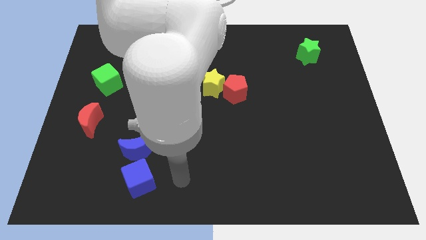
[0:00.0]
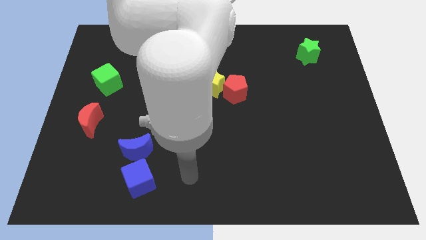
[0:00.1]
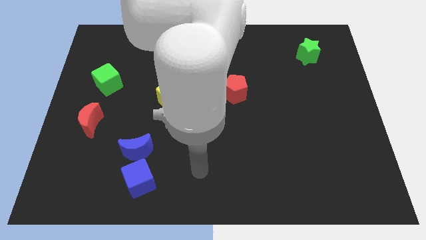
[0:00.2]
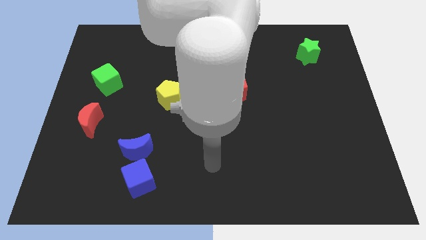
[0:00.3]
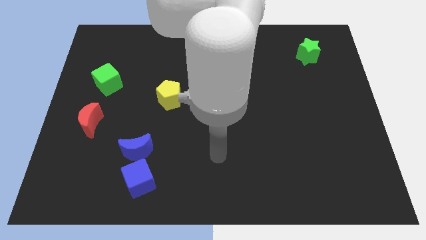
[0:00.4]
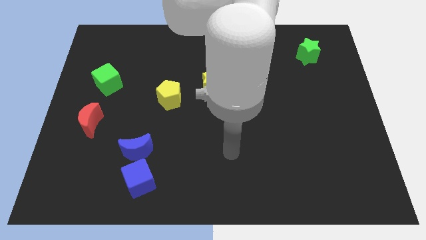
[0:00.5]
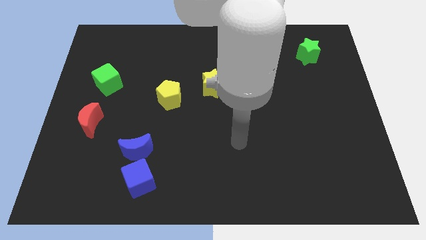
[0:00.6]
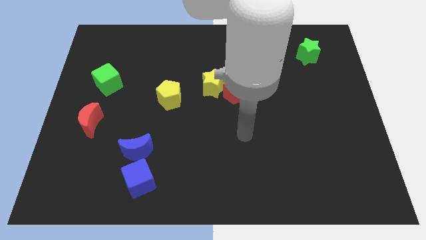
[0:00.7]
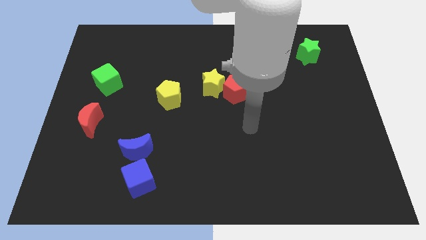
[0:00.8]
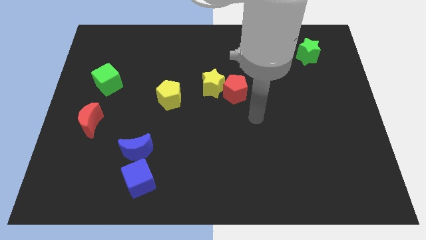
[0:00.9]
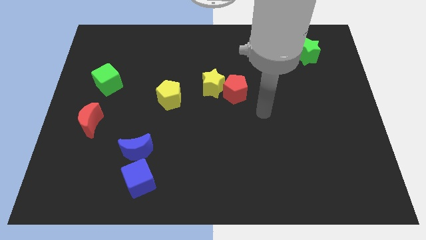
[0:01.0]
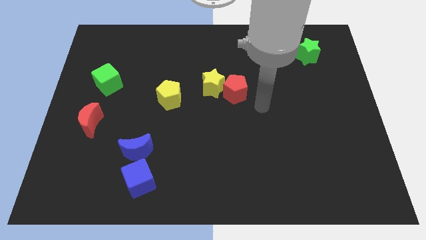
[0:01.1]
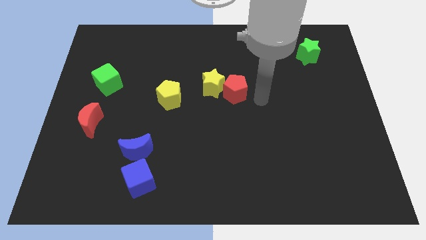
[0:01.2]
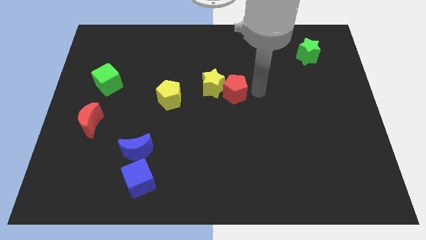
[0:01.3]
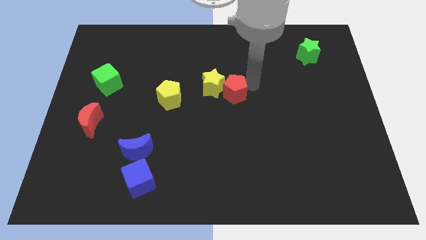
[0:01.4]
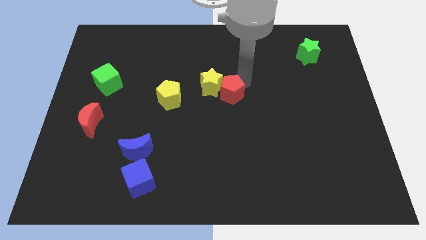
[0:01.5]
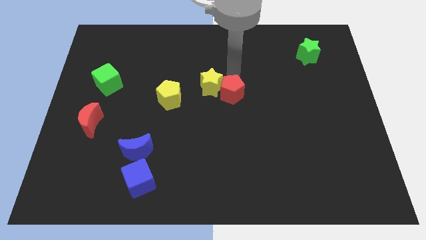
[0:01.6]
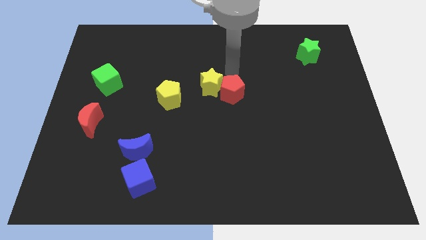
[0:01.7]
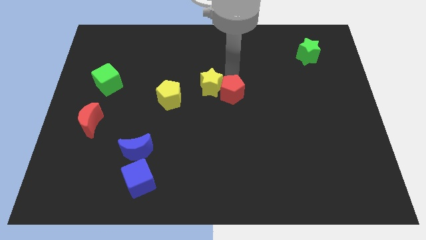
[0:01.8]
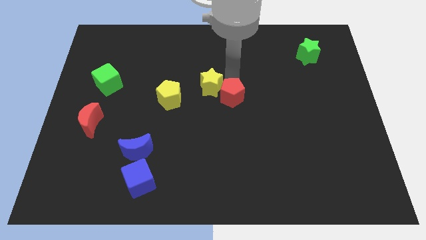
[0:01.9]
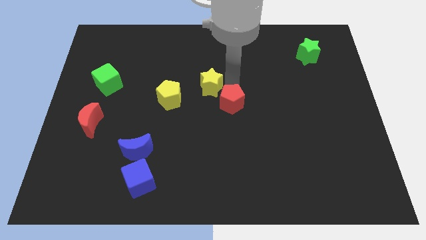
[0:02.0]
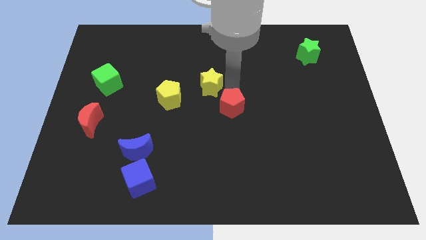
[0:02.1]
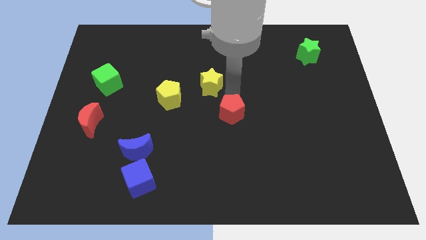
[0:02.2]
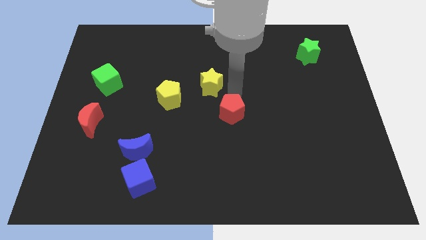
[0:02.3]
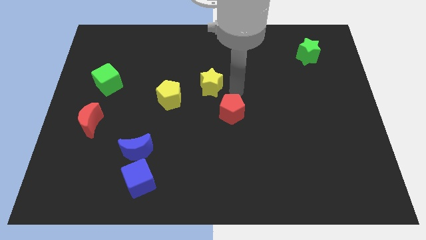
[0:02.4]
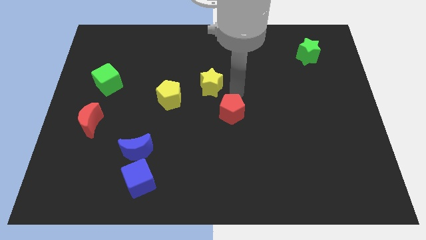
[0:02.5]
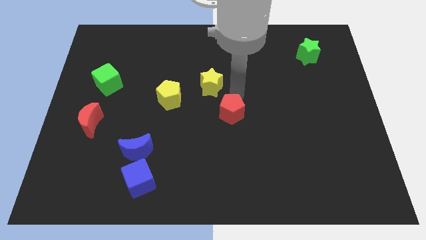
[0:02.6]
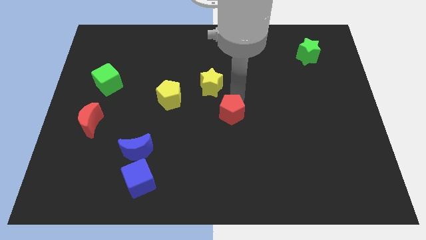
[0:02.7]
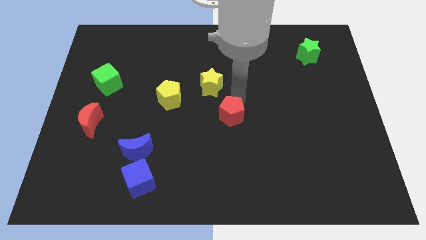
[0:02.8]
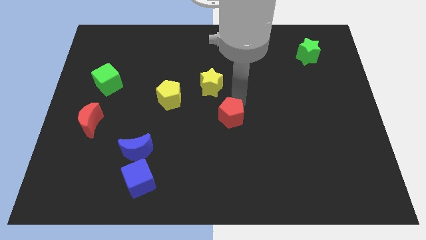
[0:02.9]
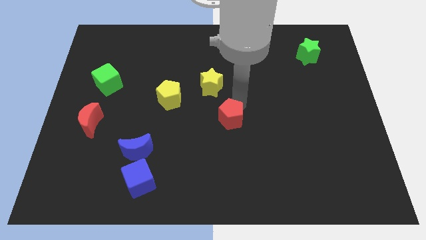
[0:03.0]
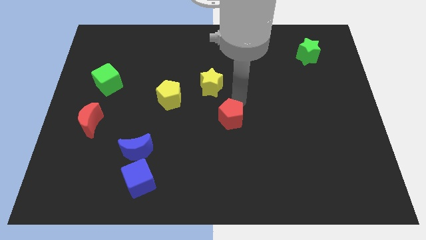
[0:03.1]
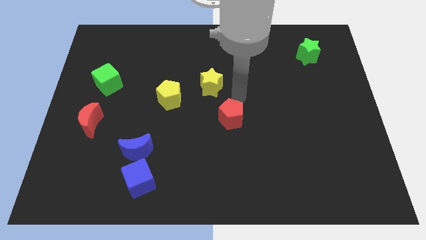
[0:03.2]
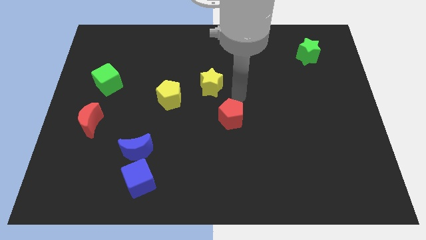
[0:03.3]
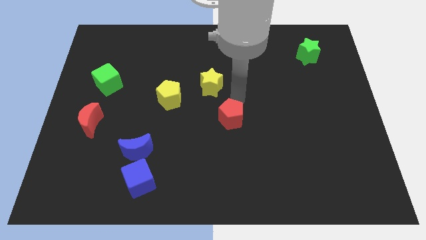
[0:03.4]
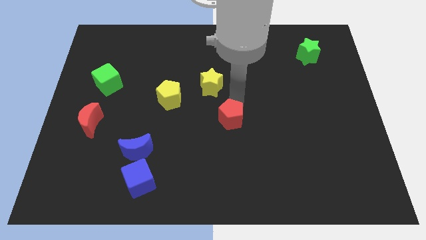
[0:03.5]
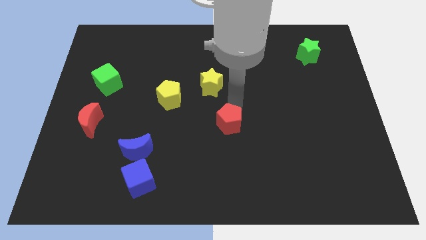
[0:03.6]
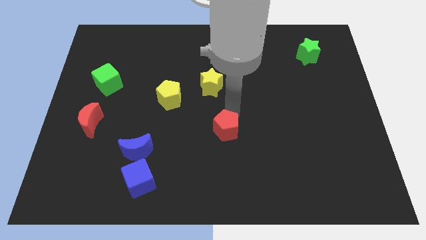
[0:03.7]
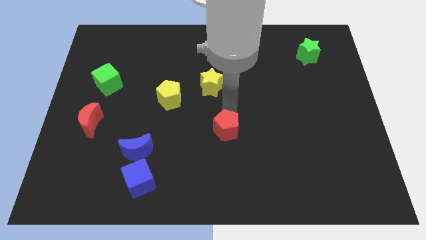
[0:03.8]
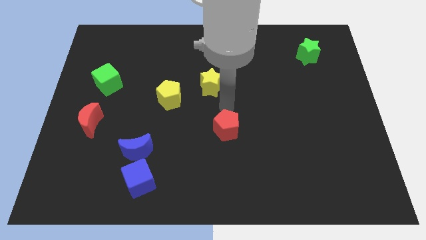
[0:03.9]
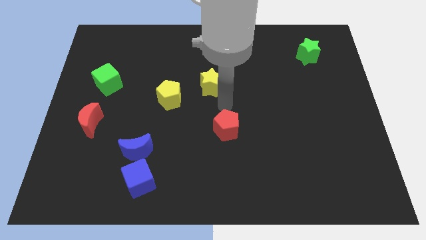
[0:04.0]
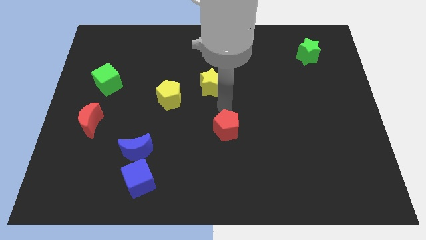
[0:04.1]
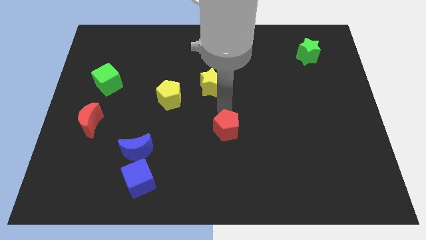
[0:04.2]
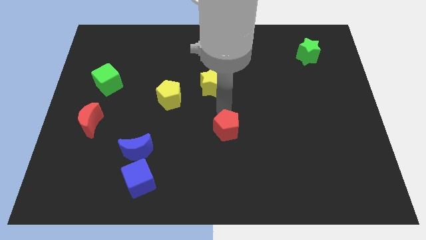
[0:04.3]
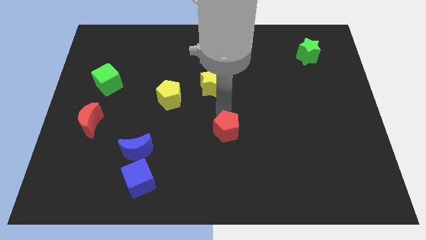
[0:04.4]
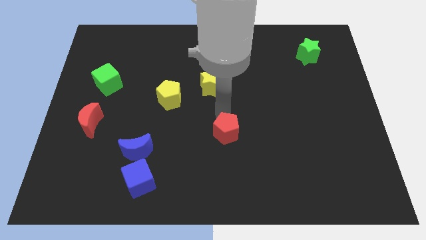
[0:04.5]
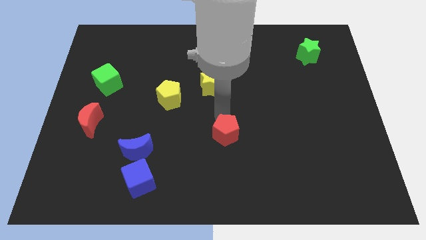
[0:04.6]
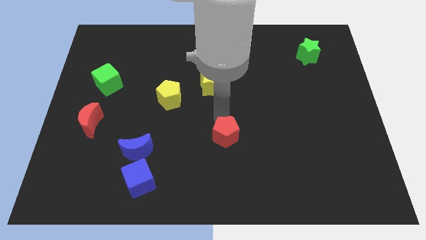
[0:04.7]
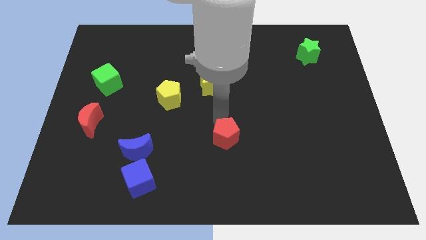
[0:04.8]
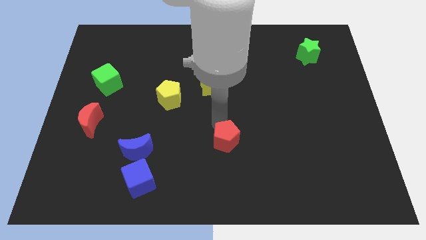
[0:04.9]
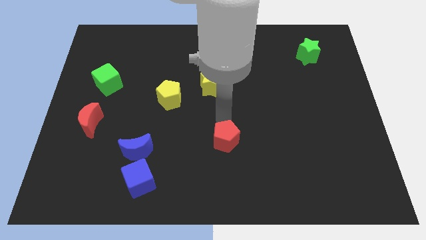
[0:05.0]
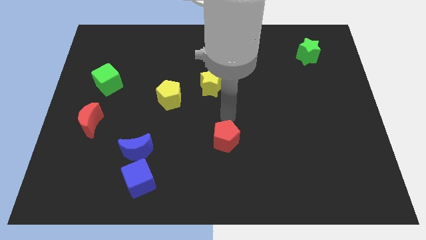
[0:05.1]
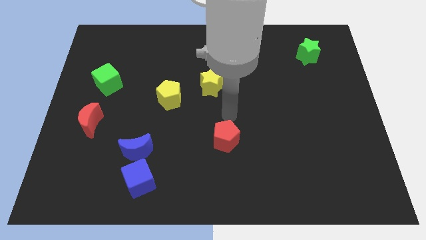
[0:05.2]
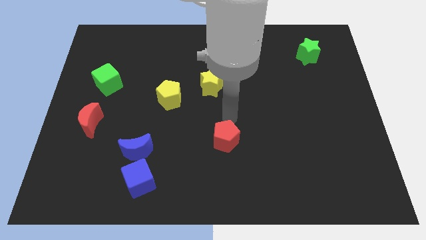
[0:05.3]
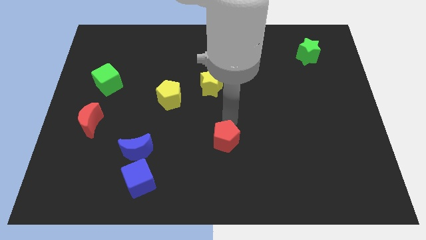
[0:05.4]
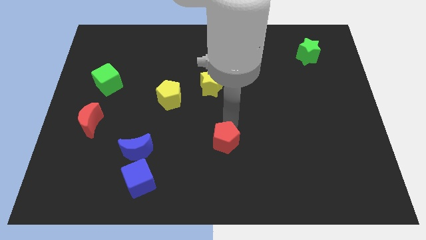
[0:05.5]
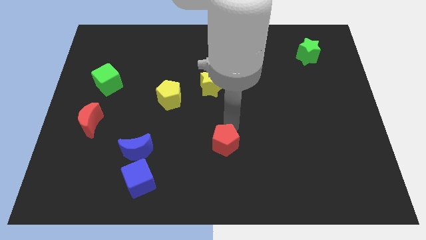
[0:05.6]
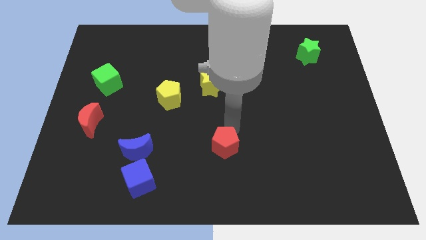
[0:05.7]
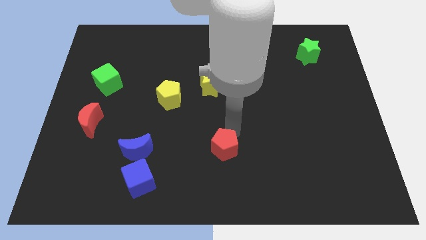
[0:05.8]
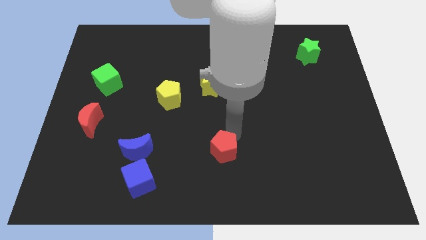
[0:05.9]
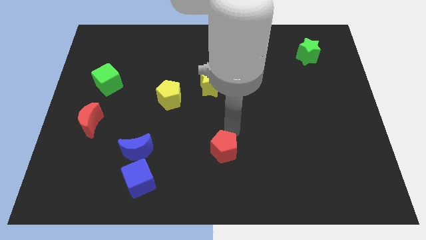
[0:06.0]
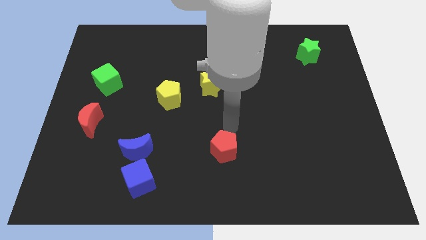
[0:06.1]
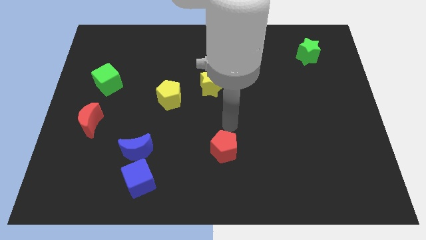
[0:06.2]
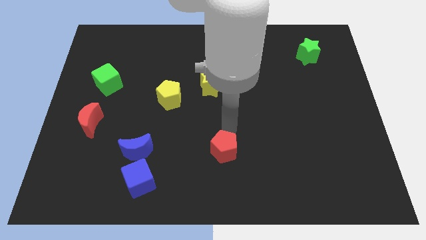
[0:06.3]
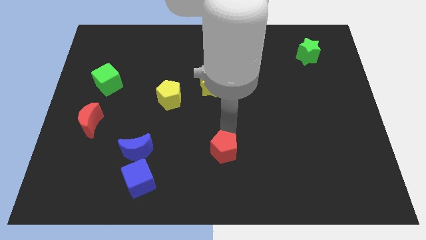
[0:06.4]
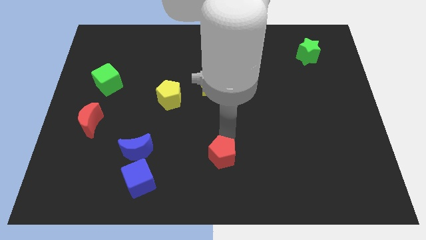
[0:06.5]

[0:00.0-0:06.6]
move the red pentagon to the bottom

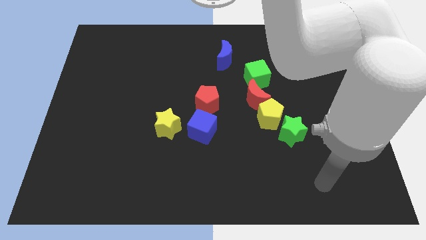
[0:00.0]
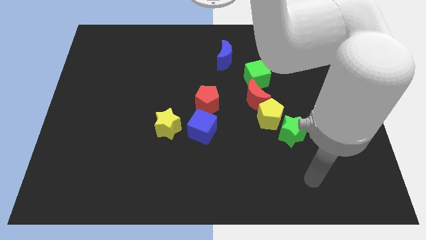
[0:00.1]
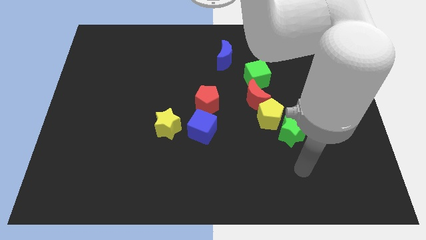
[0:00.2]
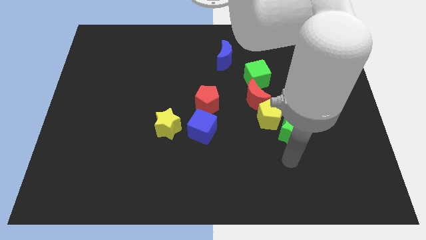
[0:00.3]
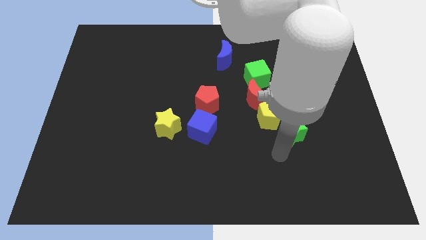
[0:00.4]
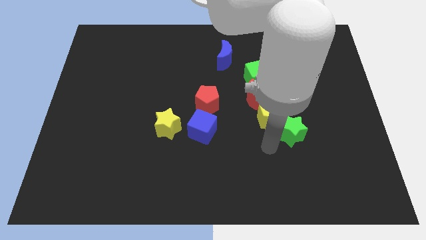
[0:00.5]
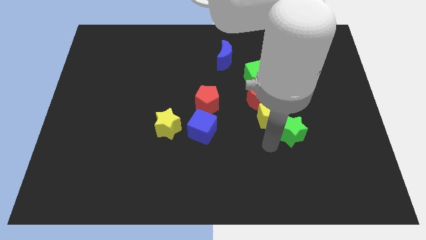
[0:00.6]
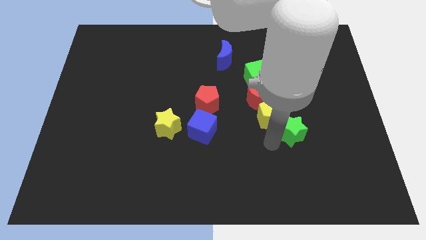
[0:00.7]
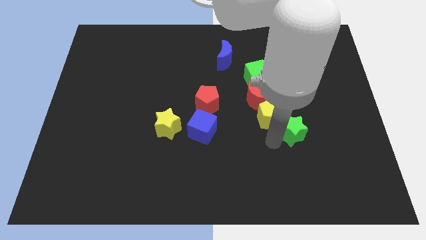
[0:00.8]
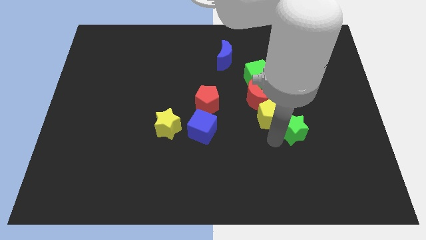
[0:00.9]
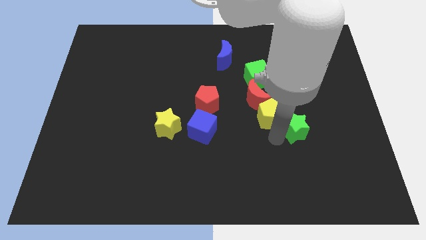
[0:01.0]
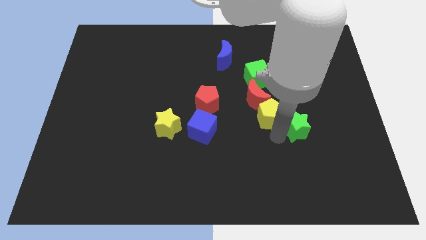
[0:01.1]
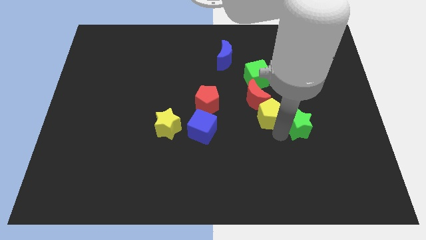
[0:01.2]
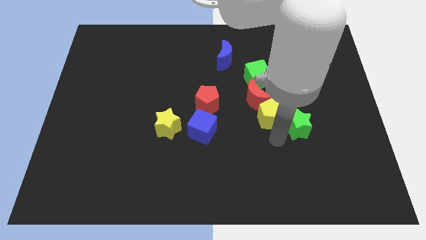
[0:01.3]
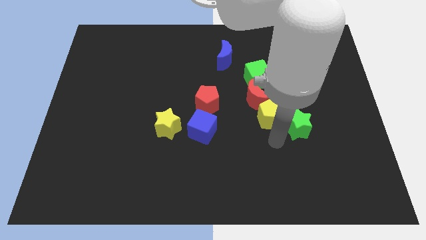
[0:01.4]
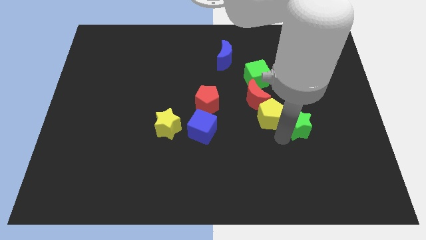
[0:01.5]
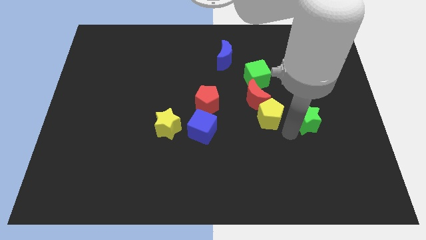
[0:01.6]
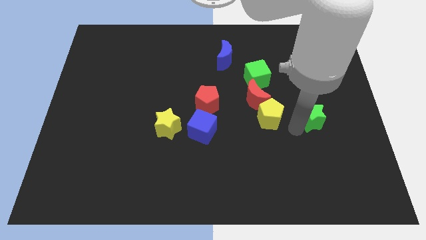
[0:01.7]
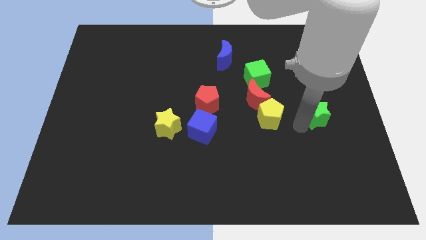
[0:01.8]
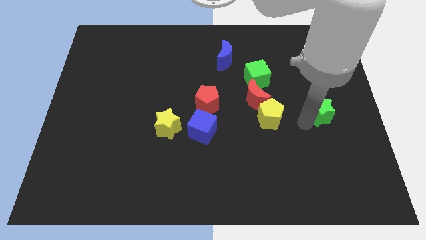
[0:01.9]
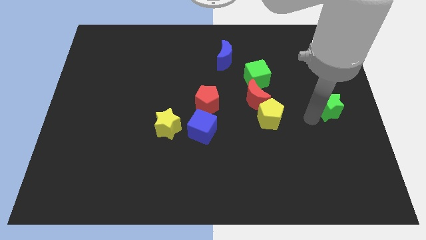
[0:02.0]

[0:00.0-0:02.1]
slide the green star to the right side of the board
